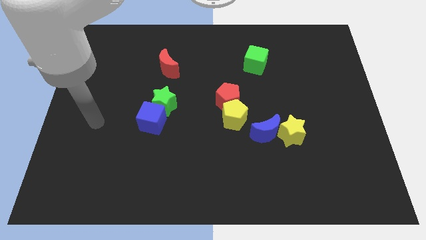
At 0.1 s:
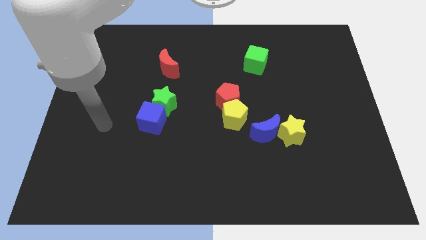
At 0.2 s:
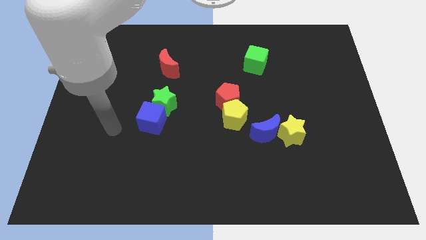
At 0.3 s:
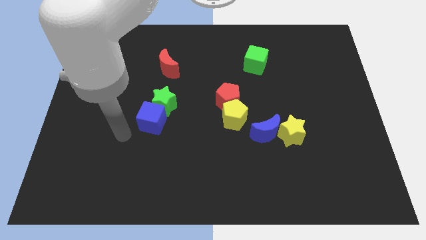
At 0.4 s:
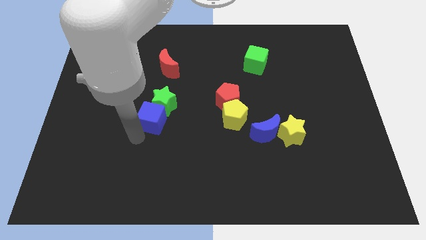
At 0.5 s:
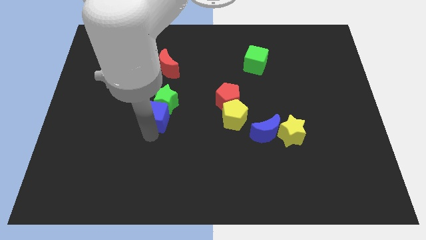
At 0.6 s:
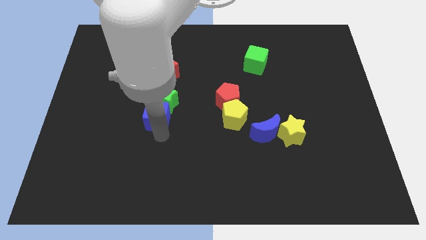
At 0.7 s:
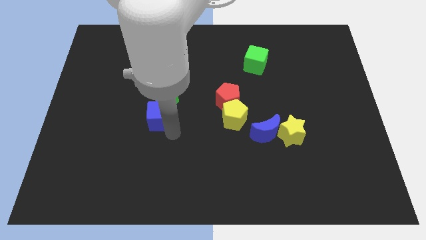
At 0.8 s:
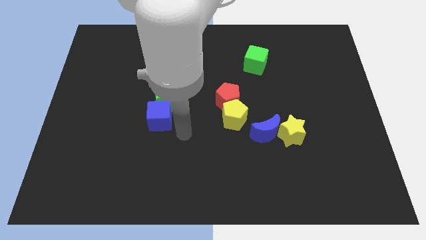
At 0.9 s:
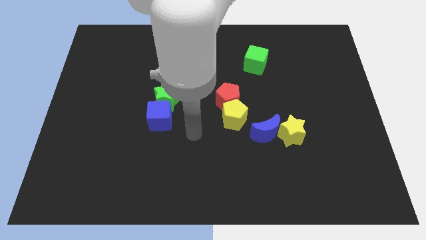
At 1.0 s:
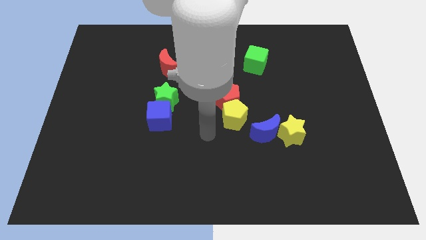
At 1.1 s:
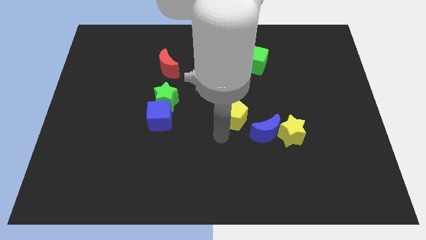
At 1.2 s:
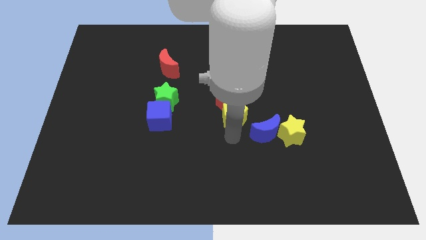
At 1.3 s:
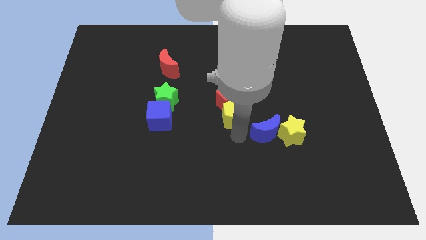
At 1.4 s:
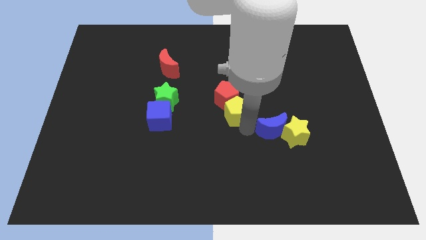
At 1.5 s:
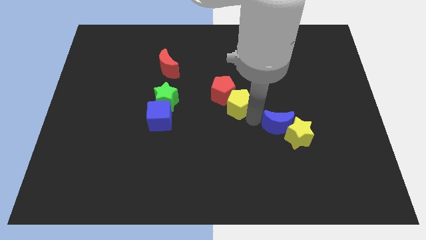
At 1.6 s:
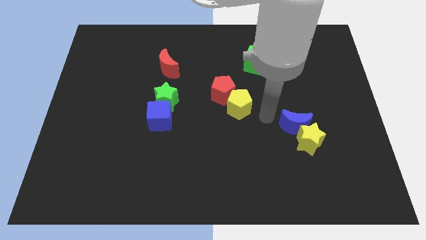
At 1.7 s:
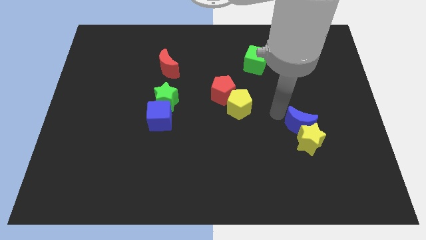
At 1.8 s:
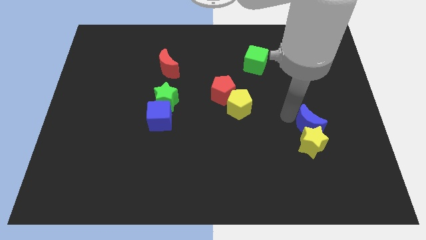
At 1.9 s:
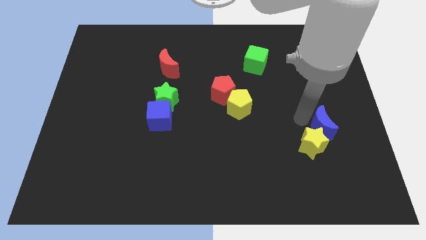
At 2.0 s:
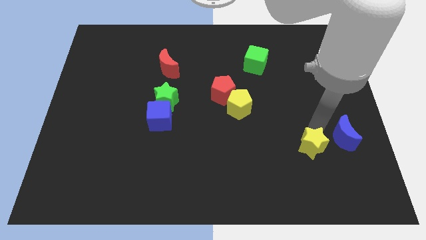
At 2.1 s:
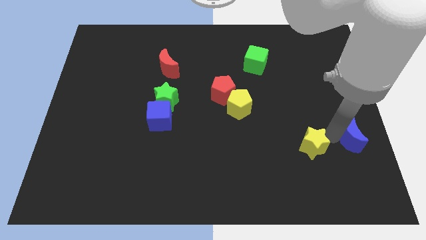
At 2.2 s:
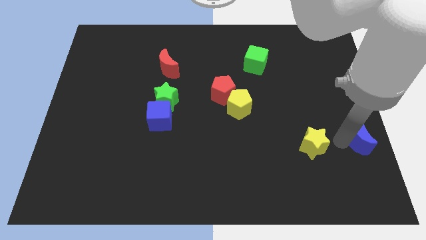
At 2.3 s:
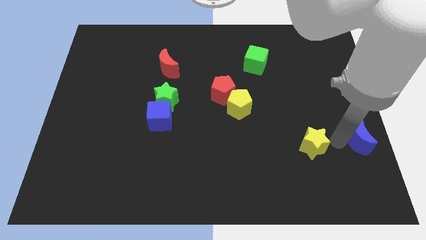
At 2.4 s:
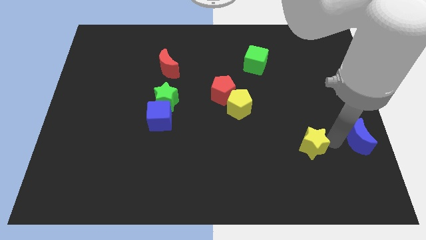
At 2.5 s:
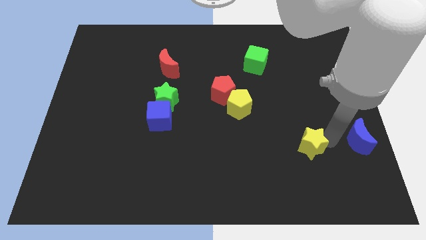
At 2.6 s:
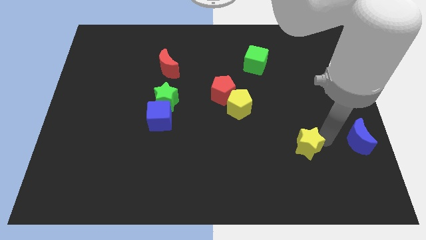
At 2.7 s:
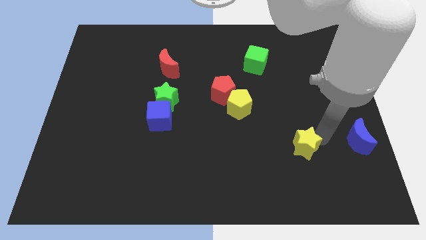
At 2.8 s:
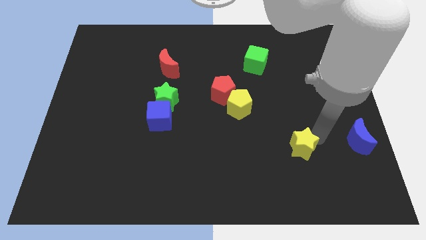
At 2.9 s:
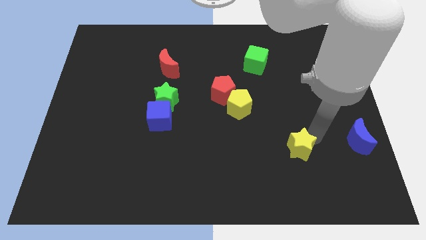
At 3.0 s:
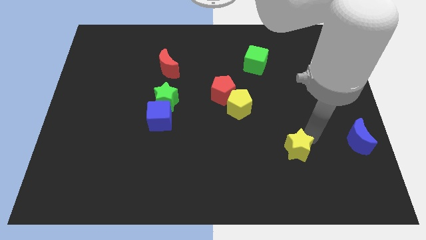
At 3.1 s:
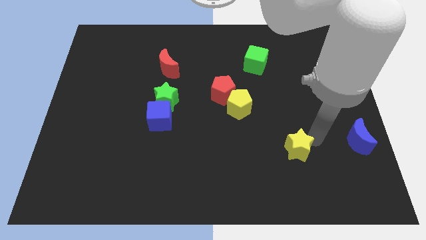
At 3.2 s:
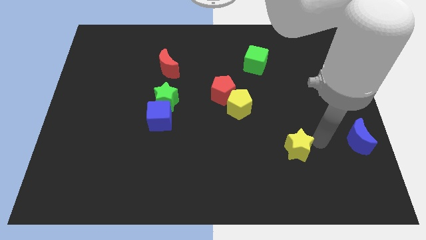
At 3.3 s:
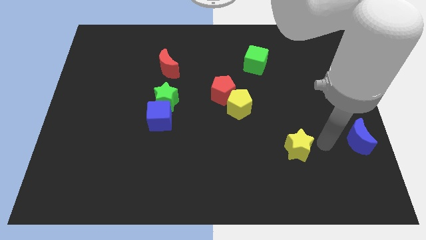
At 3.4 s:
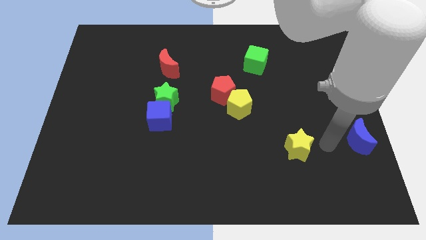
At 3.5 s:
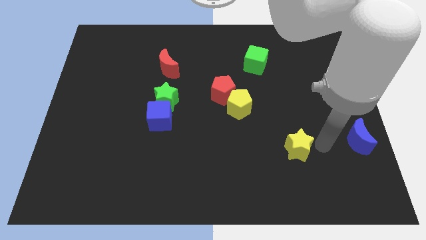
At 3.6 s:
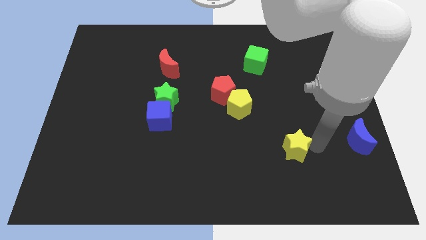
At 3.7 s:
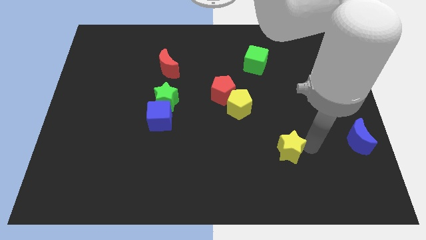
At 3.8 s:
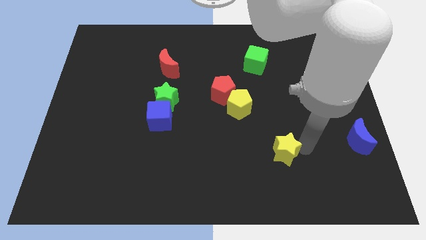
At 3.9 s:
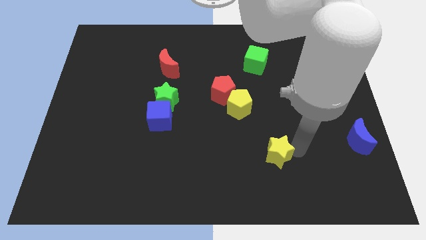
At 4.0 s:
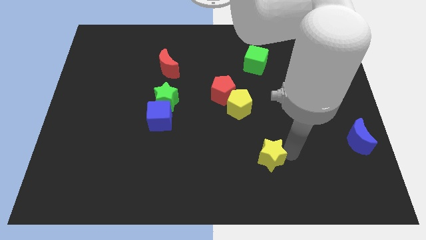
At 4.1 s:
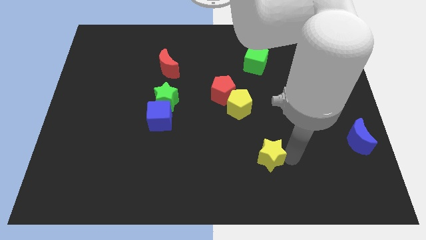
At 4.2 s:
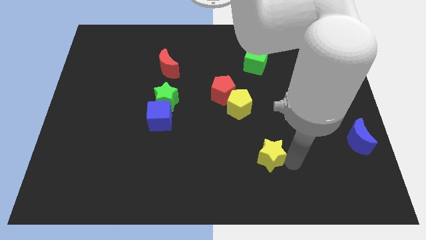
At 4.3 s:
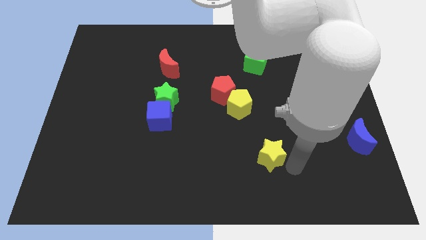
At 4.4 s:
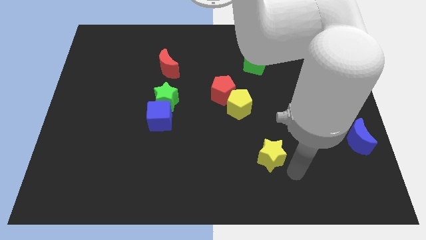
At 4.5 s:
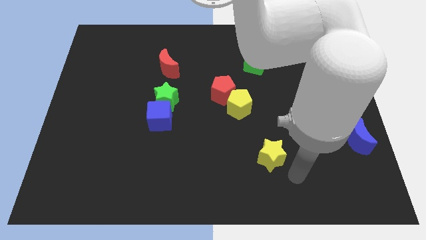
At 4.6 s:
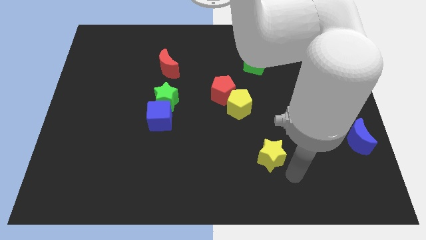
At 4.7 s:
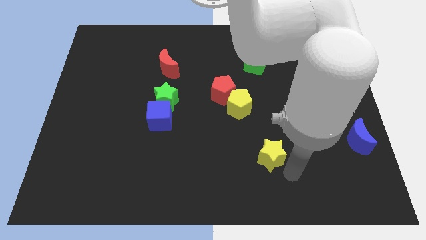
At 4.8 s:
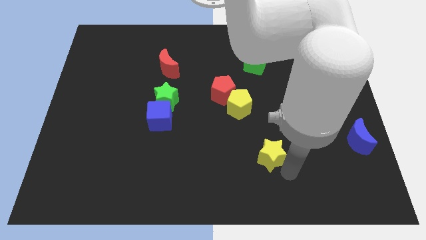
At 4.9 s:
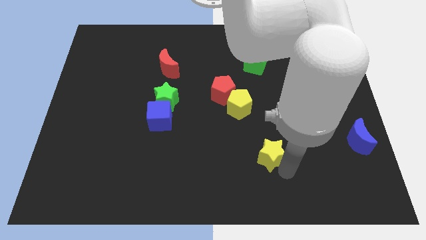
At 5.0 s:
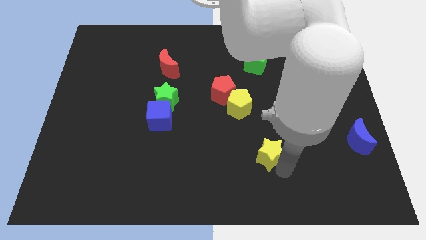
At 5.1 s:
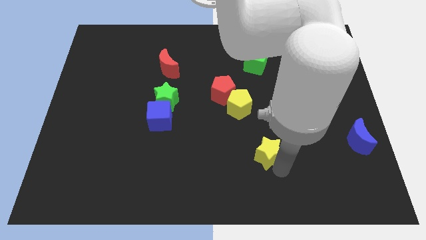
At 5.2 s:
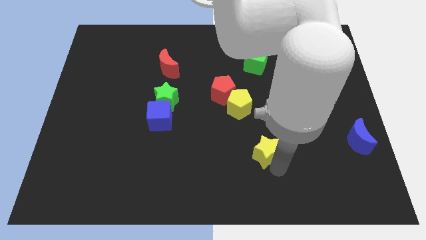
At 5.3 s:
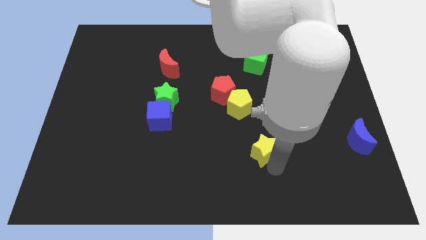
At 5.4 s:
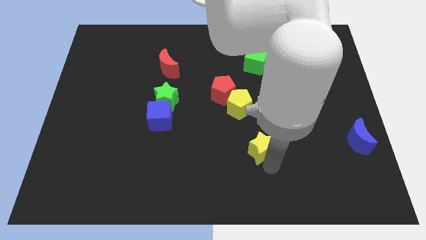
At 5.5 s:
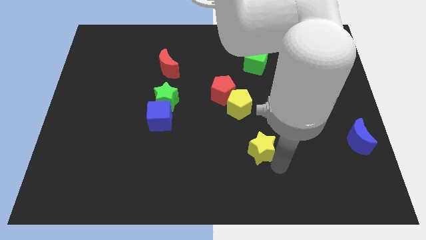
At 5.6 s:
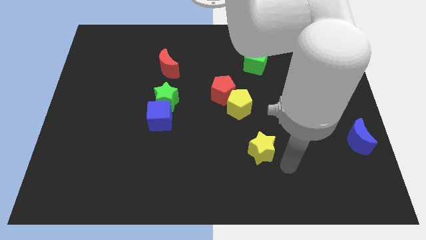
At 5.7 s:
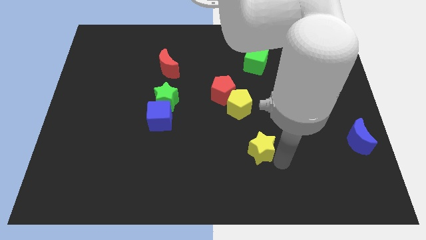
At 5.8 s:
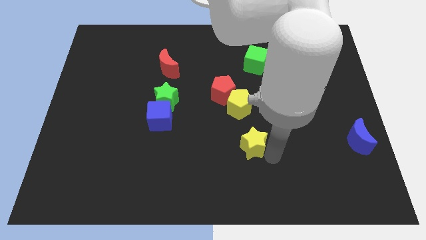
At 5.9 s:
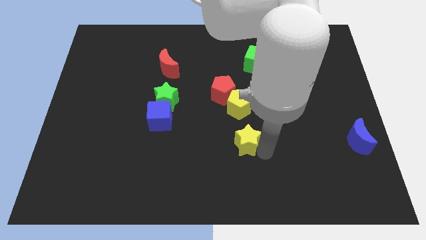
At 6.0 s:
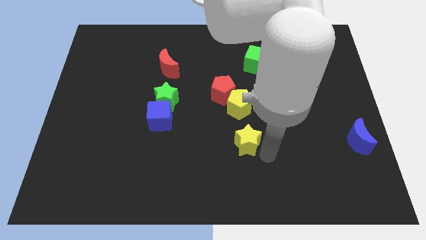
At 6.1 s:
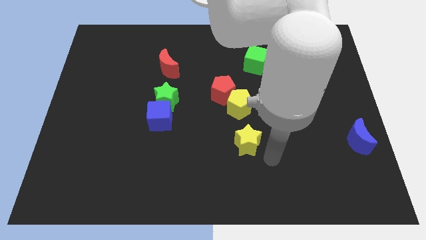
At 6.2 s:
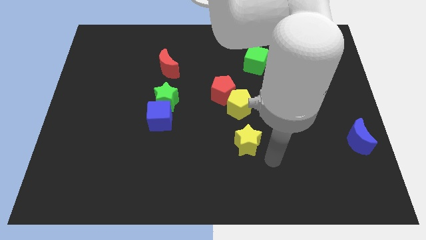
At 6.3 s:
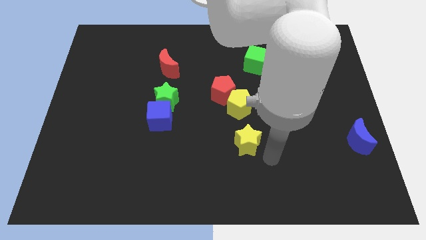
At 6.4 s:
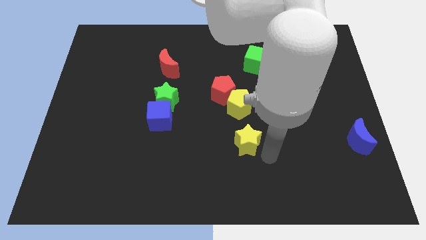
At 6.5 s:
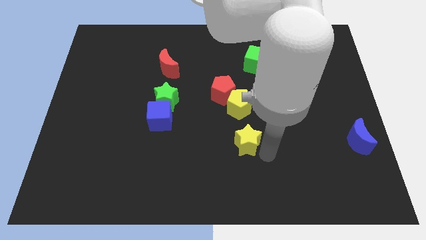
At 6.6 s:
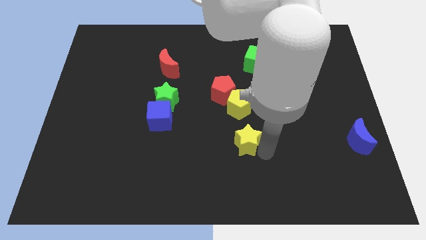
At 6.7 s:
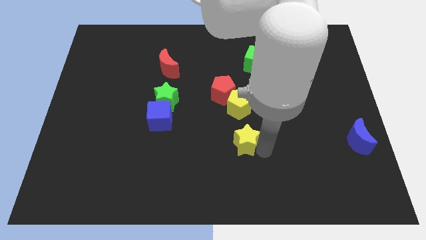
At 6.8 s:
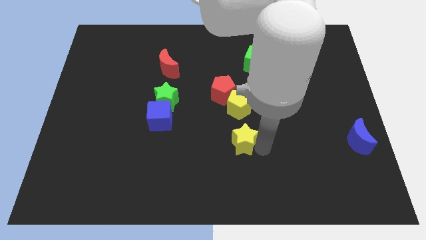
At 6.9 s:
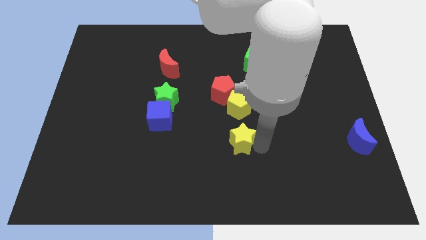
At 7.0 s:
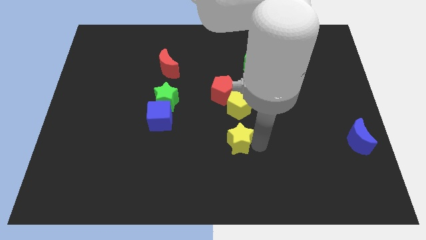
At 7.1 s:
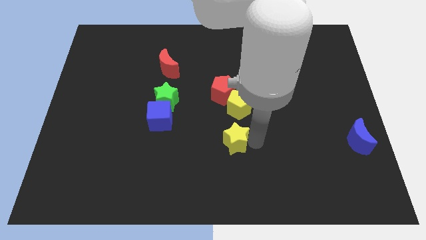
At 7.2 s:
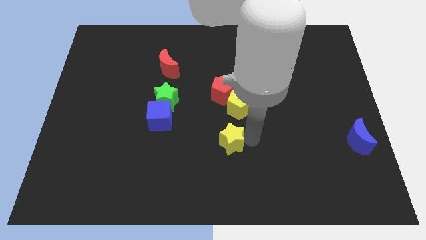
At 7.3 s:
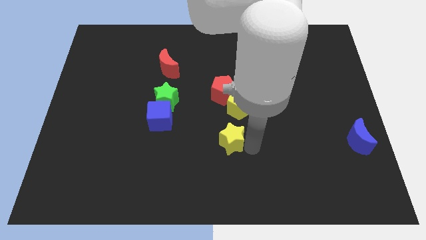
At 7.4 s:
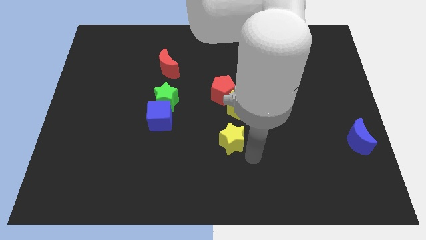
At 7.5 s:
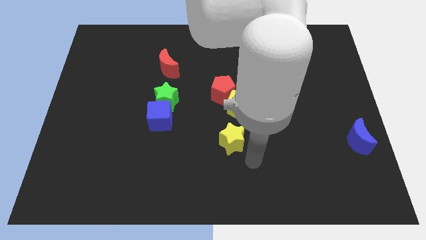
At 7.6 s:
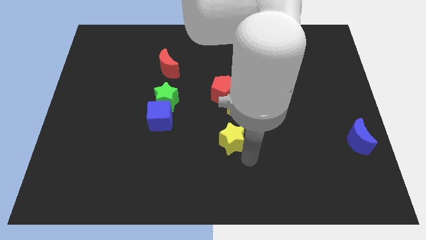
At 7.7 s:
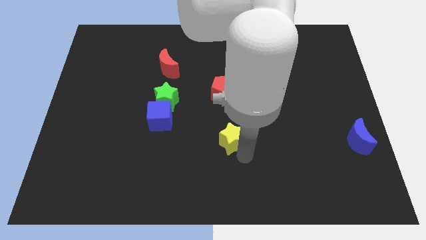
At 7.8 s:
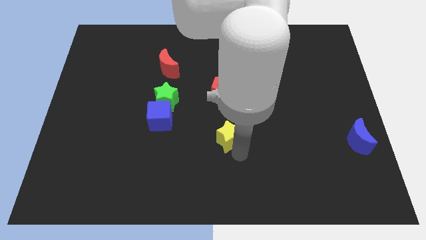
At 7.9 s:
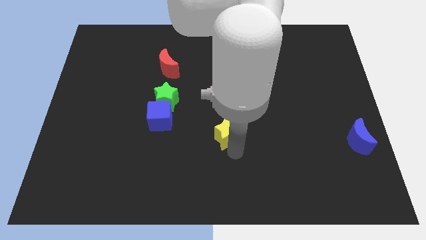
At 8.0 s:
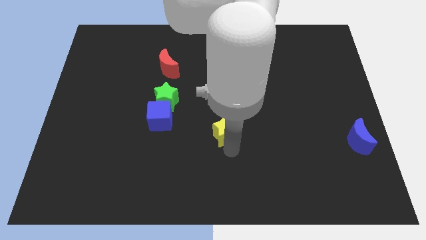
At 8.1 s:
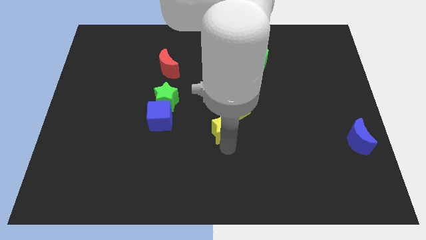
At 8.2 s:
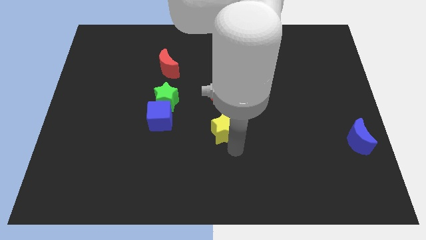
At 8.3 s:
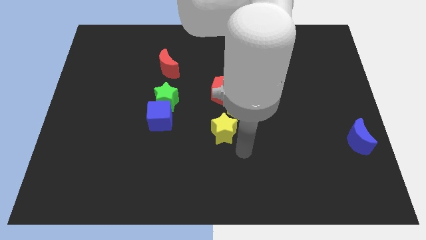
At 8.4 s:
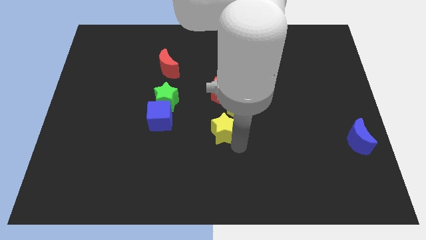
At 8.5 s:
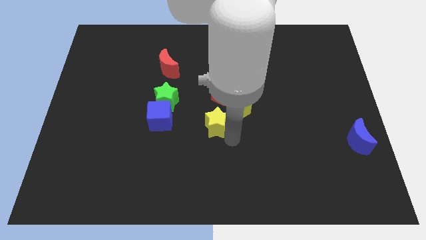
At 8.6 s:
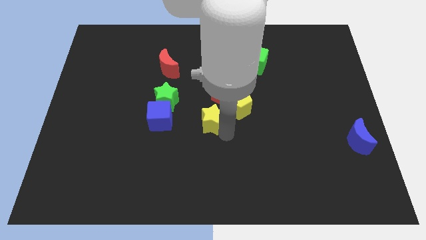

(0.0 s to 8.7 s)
slide the yellow star to the bottom left of the red pentagon
